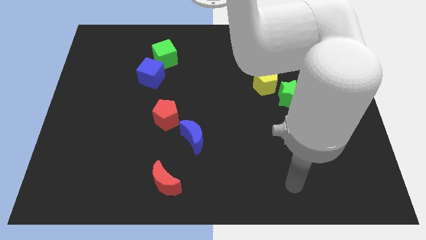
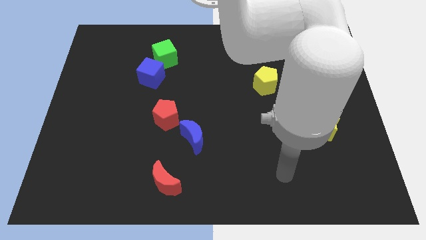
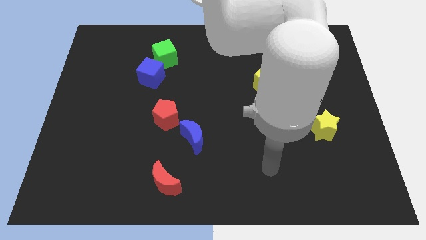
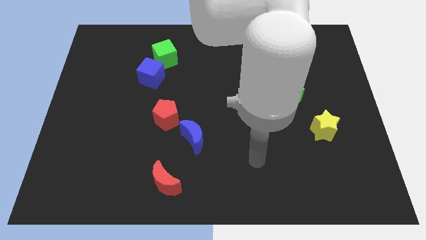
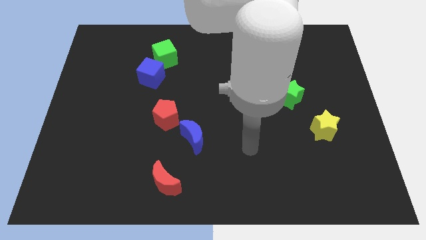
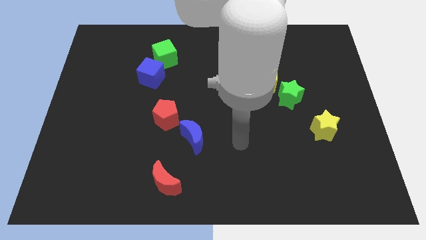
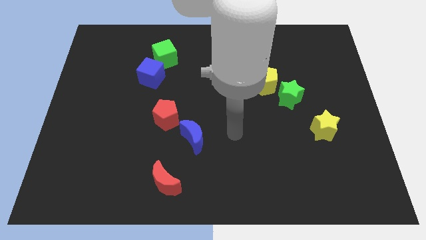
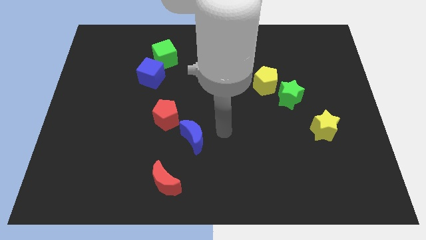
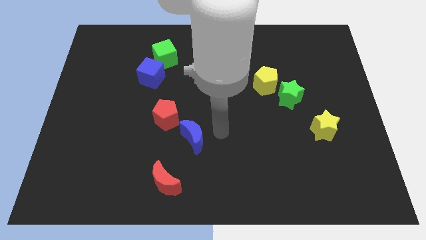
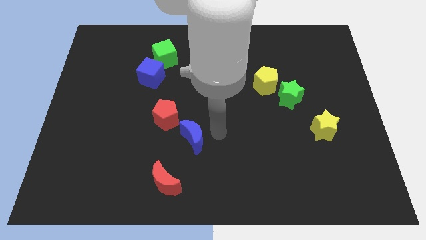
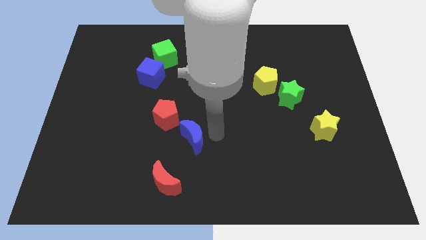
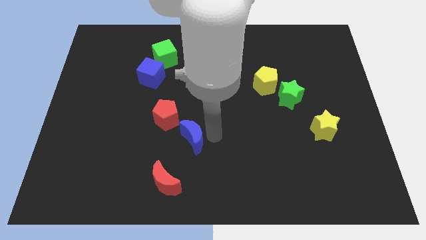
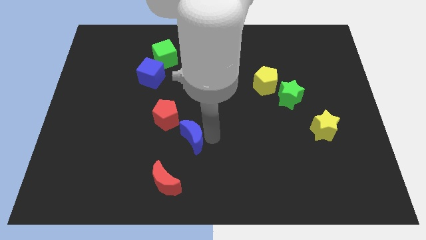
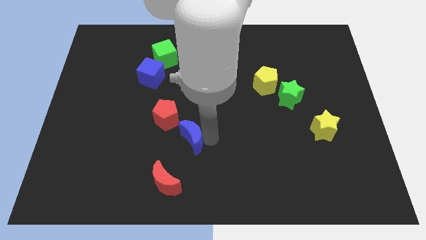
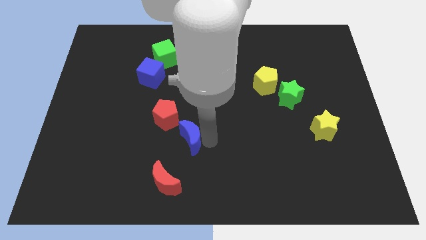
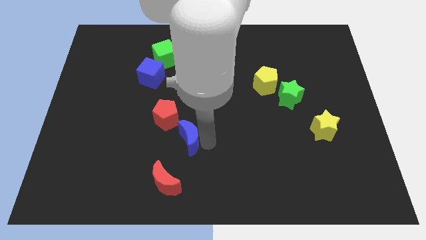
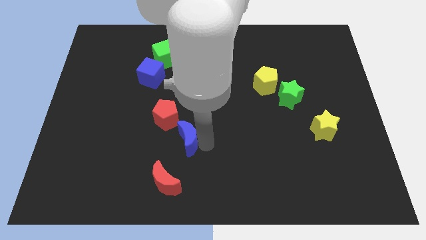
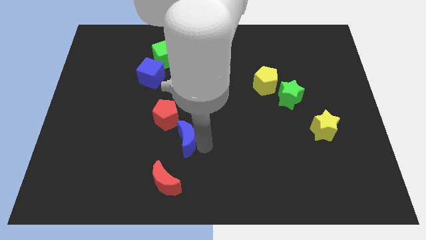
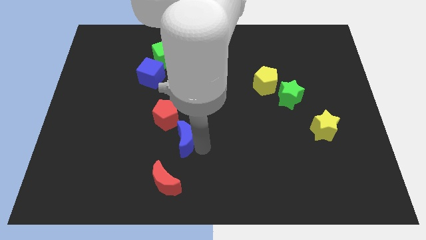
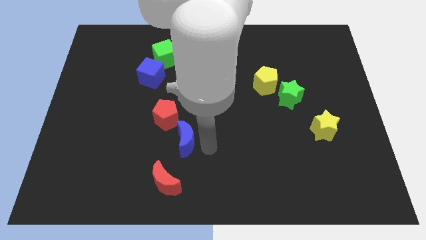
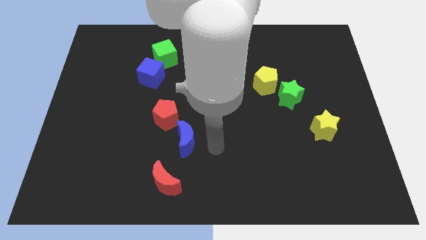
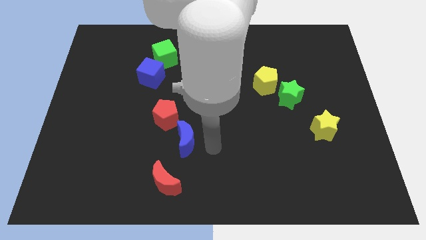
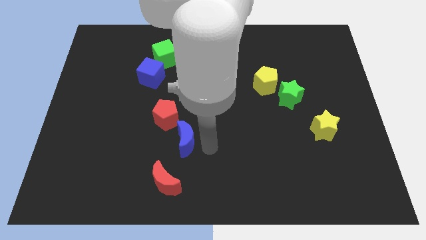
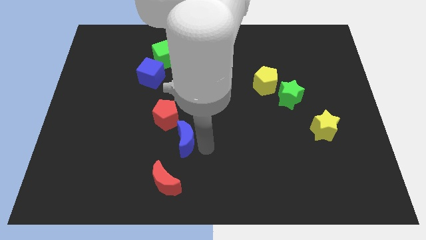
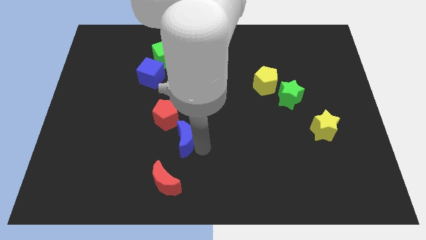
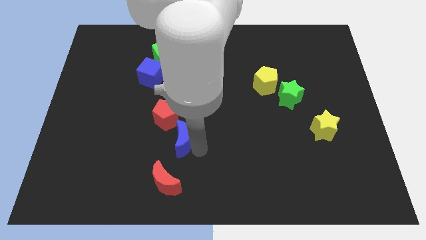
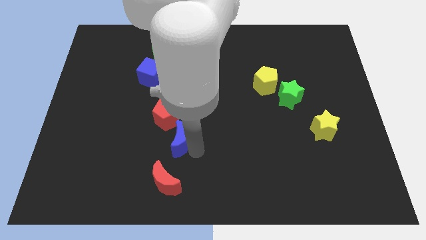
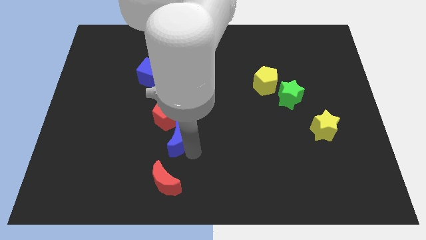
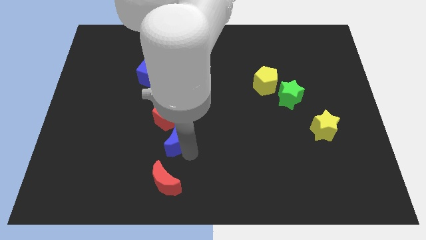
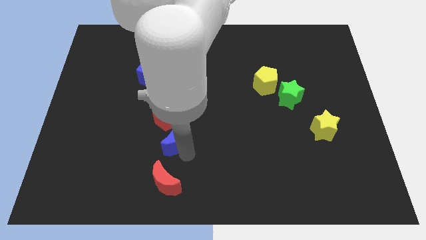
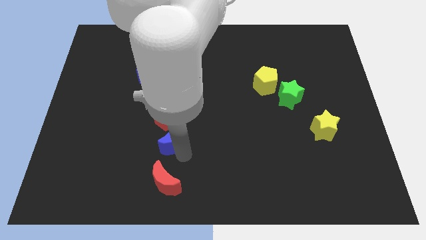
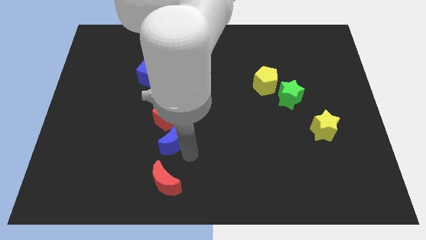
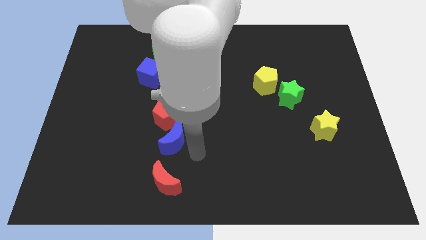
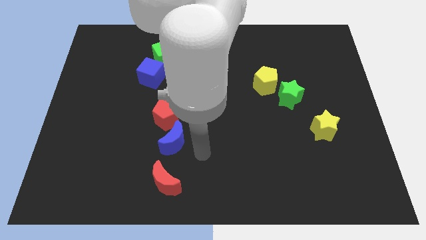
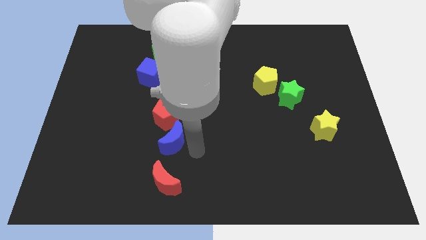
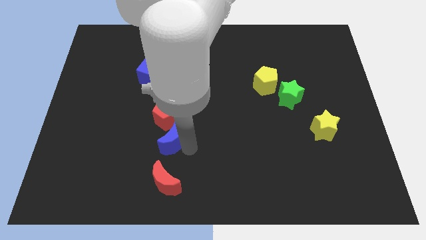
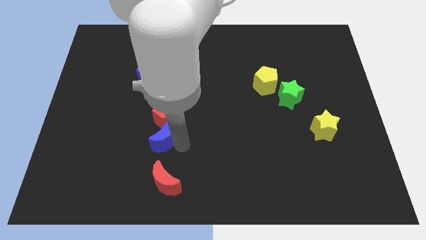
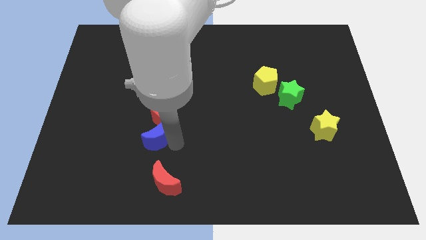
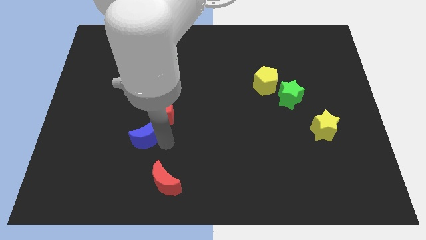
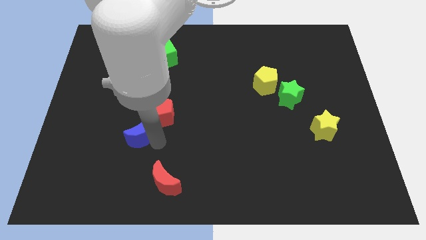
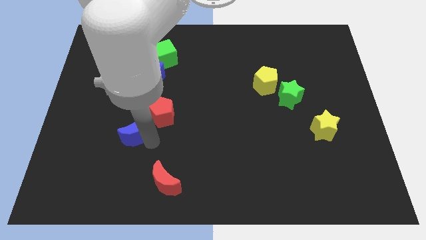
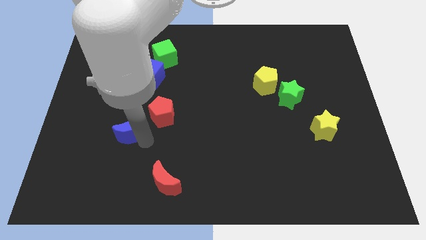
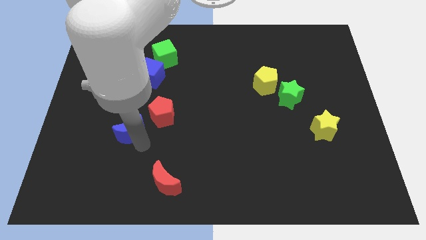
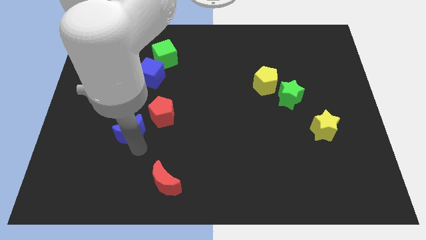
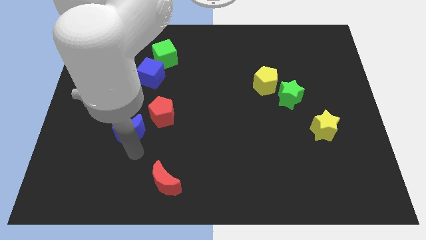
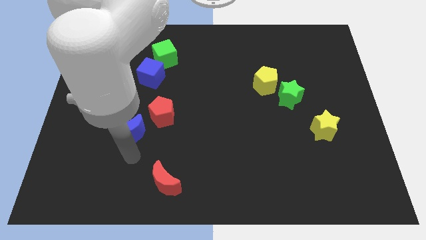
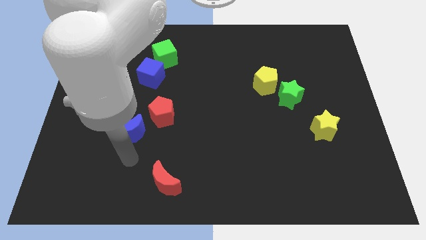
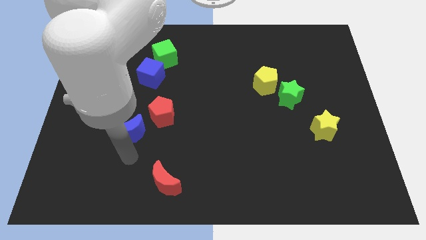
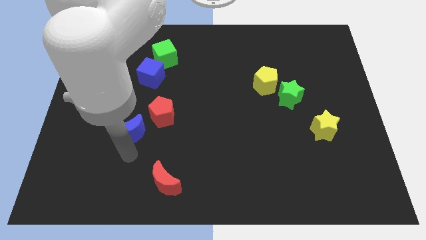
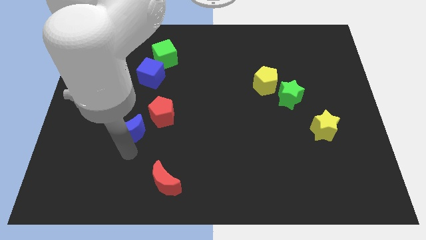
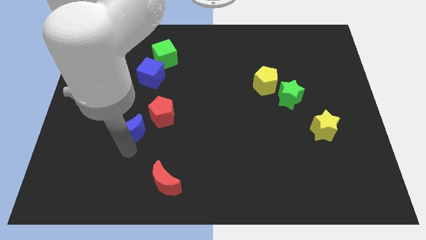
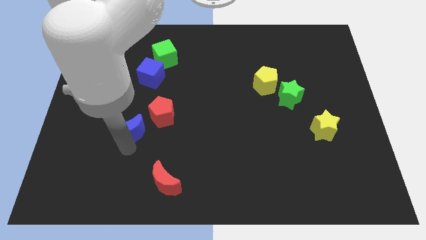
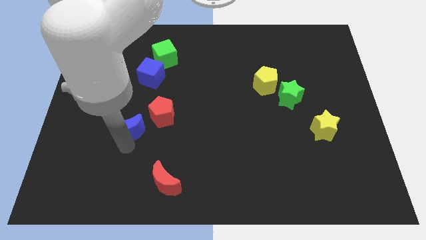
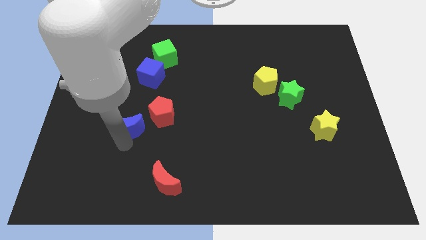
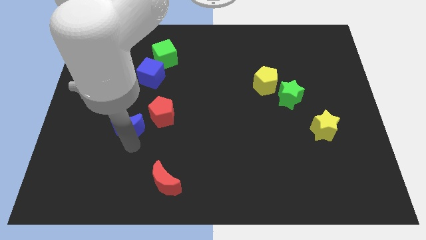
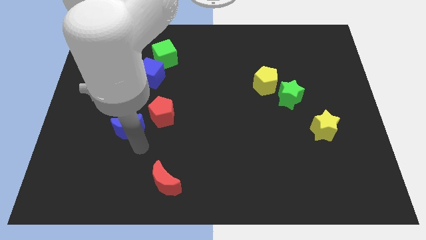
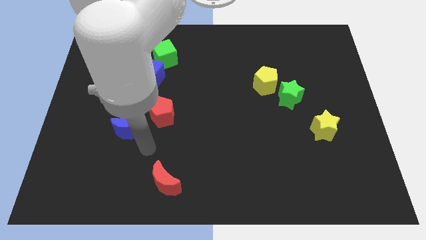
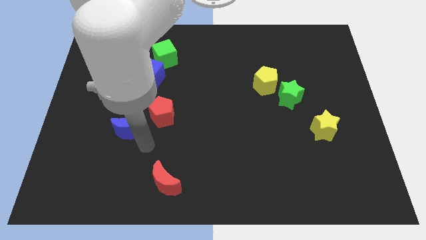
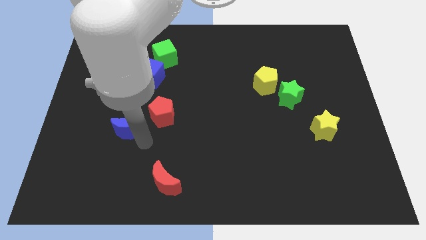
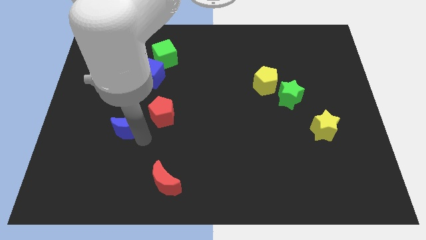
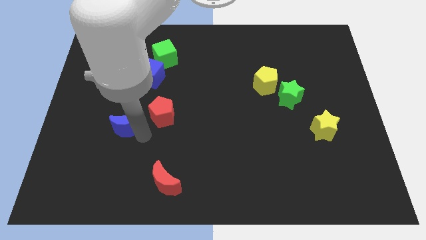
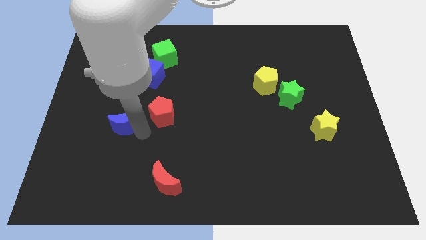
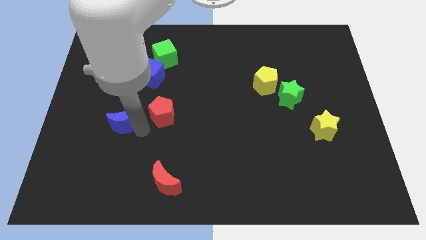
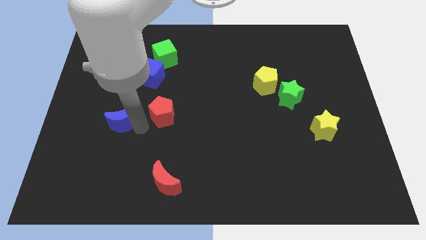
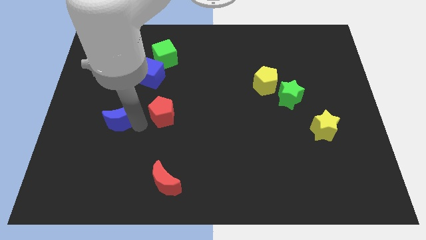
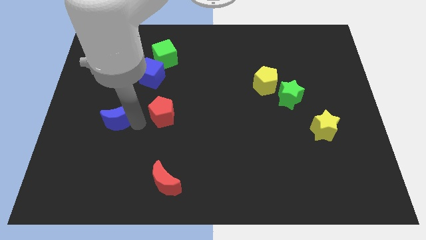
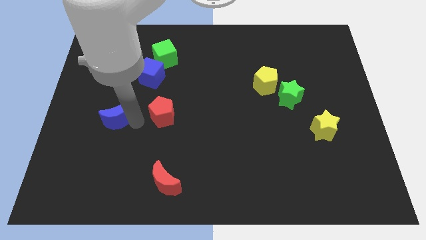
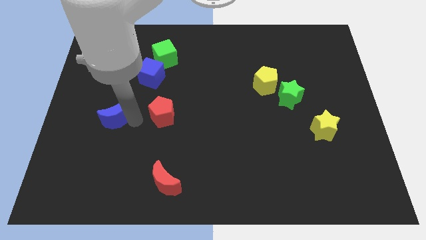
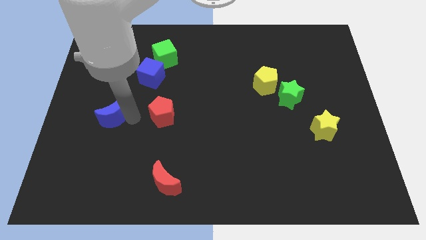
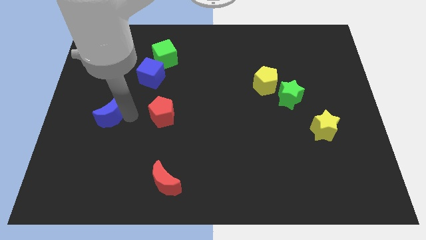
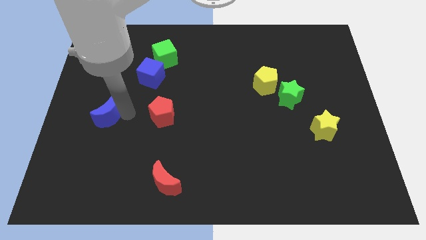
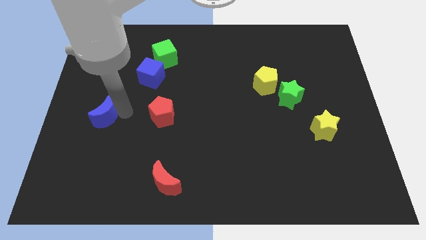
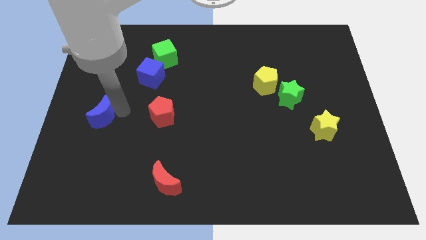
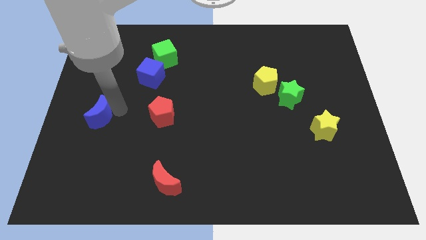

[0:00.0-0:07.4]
slide the blue moon to the center left
